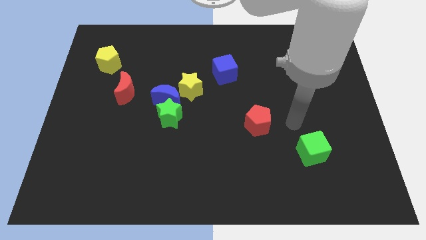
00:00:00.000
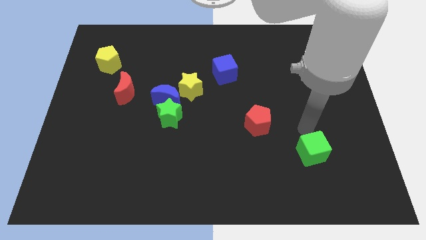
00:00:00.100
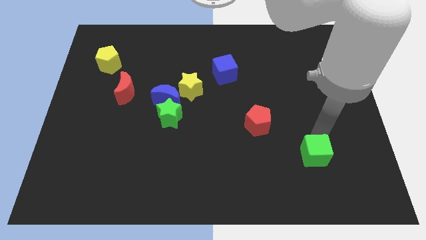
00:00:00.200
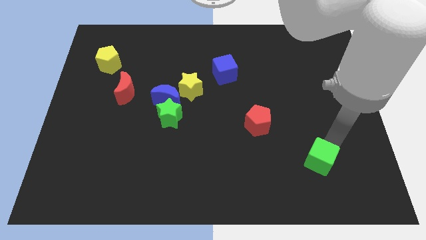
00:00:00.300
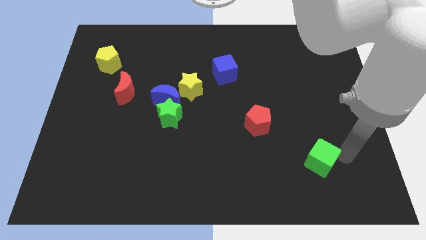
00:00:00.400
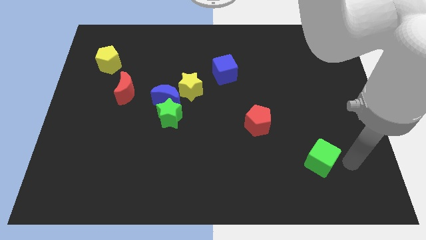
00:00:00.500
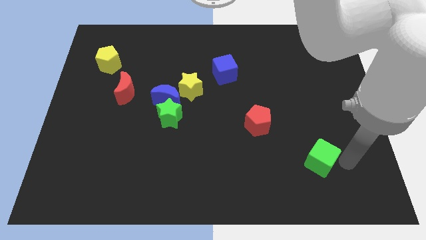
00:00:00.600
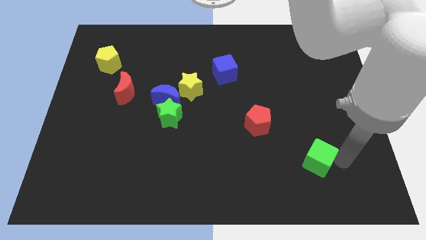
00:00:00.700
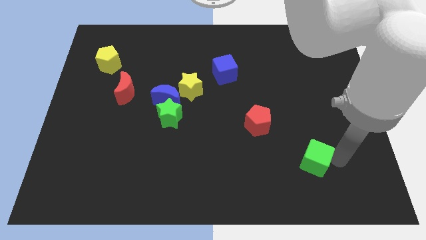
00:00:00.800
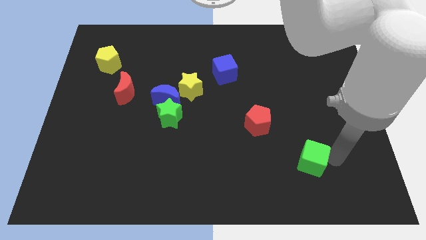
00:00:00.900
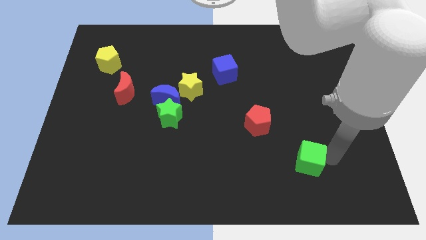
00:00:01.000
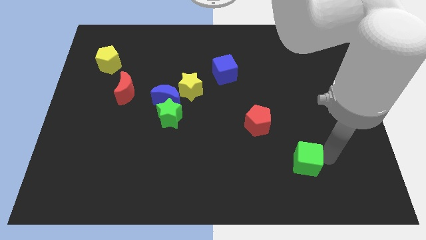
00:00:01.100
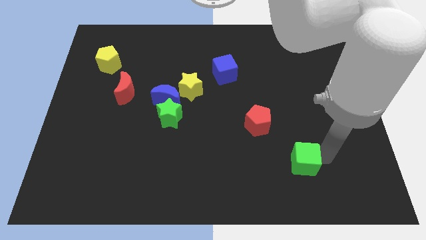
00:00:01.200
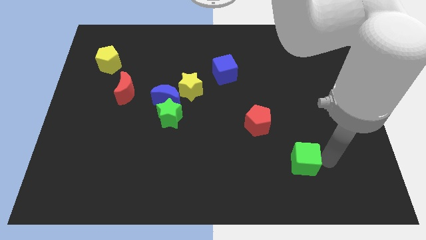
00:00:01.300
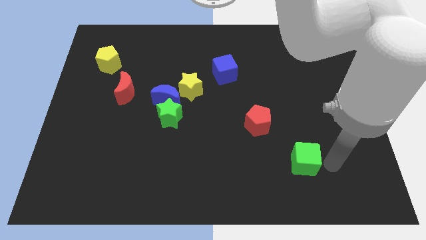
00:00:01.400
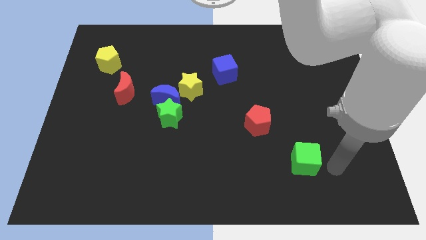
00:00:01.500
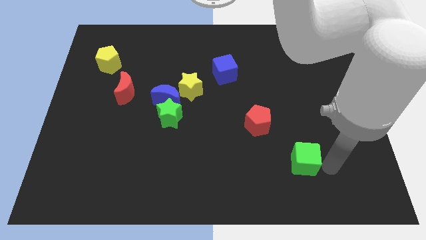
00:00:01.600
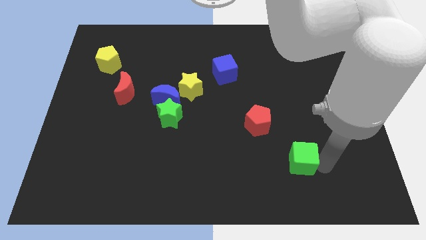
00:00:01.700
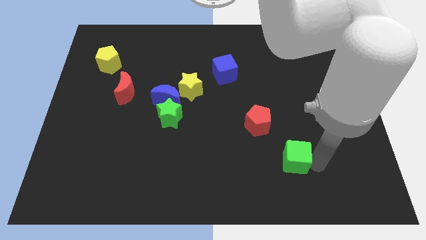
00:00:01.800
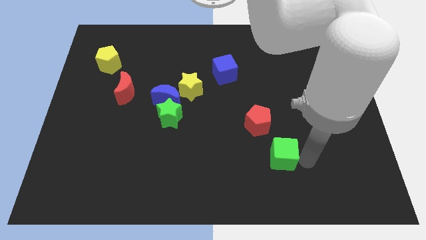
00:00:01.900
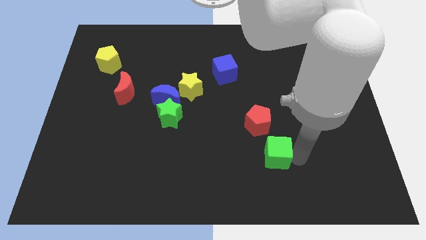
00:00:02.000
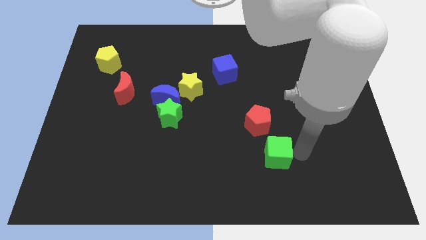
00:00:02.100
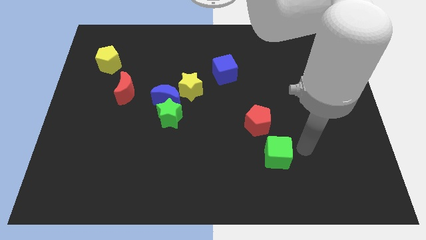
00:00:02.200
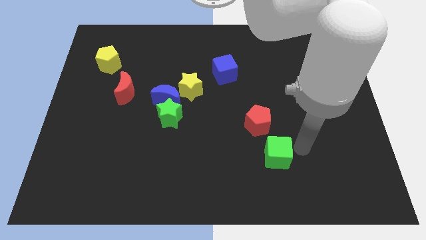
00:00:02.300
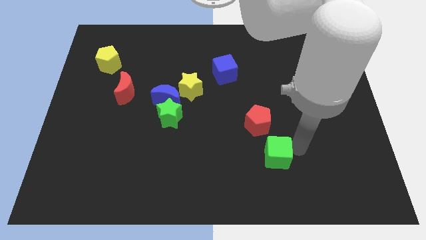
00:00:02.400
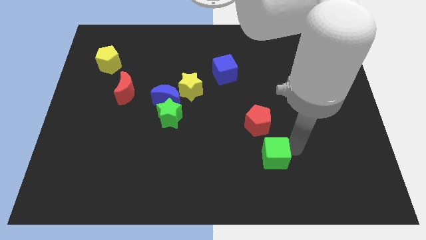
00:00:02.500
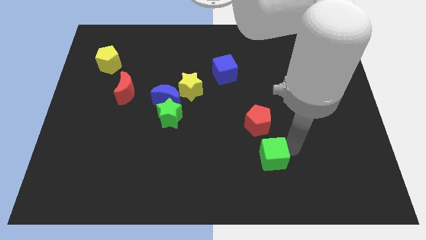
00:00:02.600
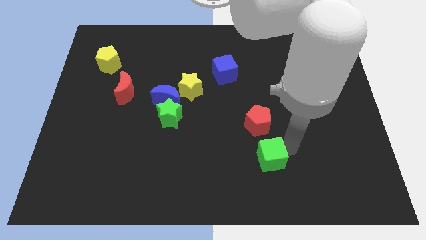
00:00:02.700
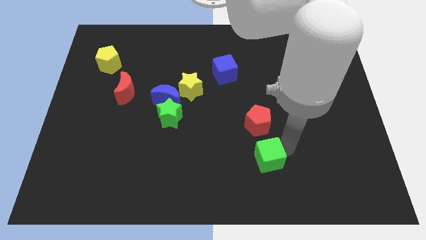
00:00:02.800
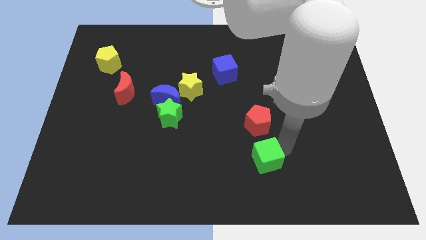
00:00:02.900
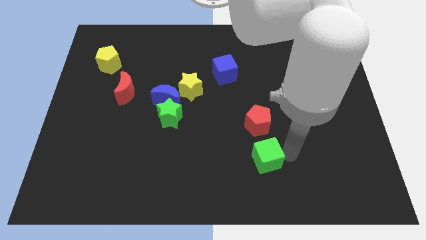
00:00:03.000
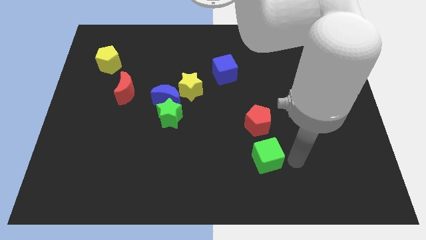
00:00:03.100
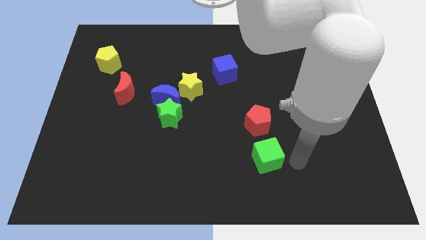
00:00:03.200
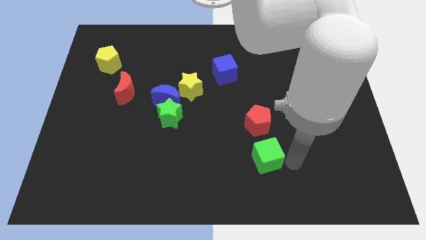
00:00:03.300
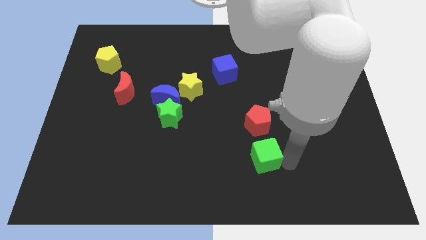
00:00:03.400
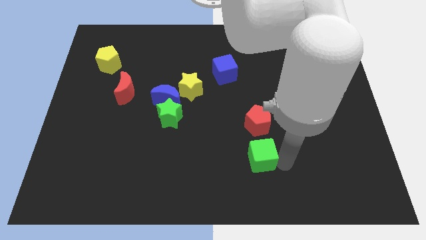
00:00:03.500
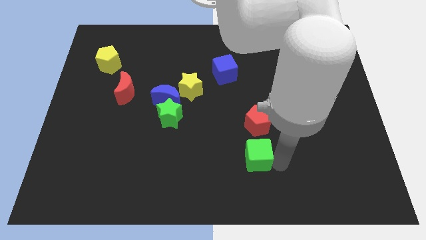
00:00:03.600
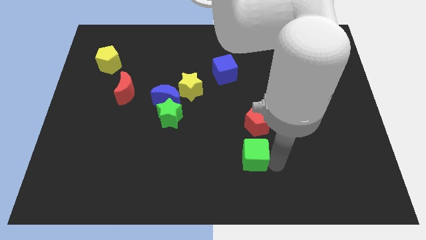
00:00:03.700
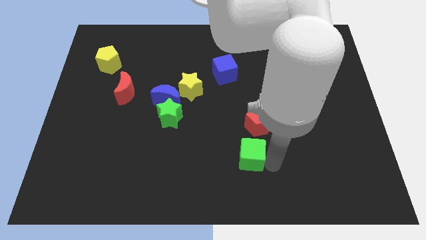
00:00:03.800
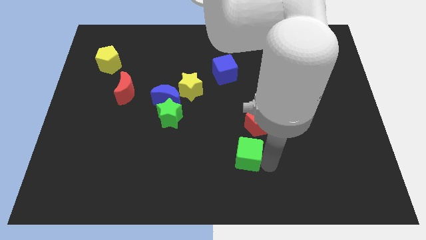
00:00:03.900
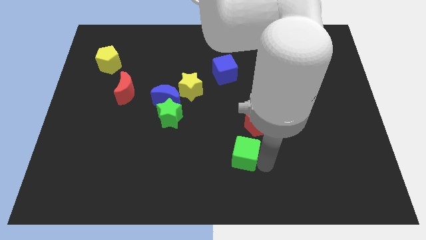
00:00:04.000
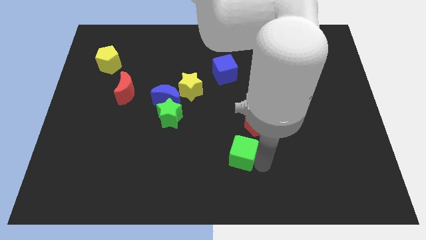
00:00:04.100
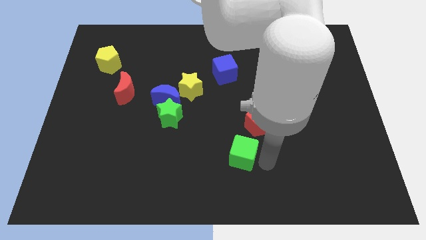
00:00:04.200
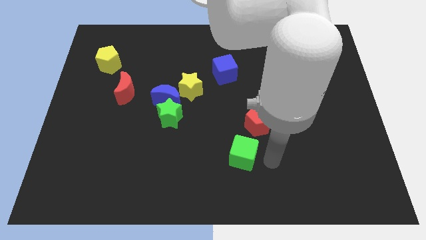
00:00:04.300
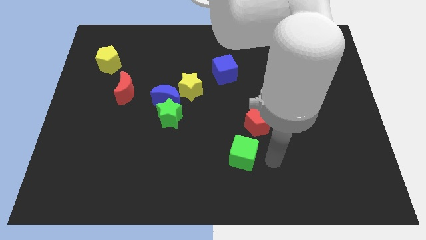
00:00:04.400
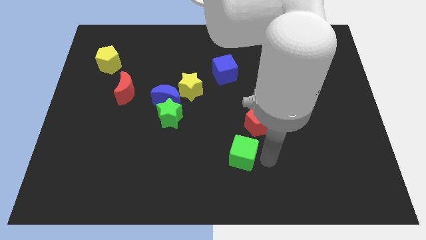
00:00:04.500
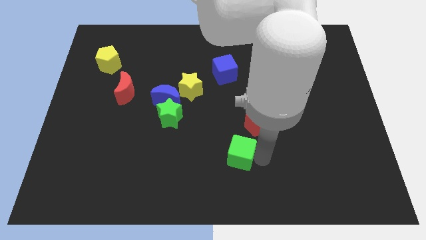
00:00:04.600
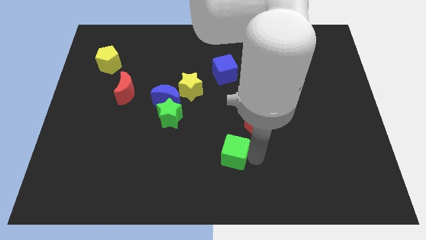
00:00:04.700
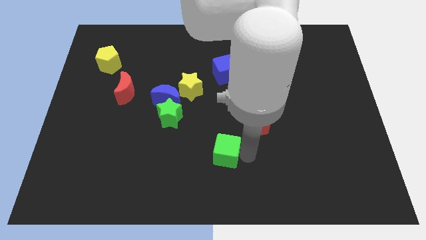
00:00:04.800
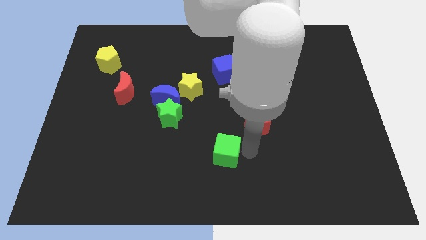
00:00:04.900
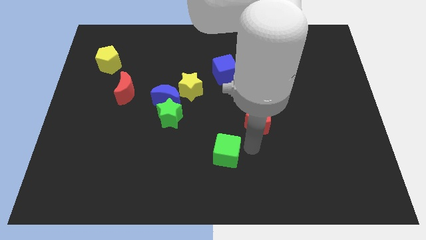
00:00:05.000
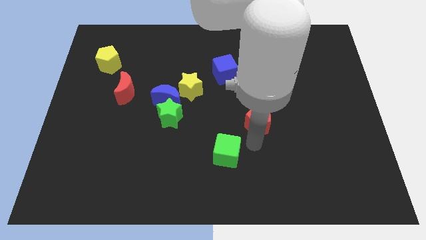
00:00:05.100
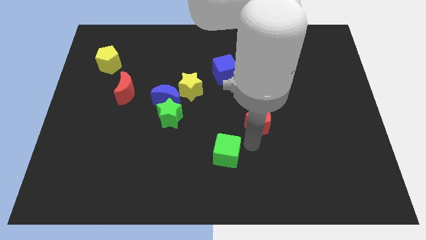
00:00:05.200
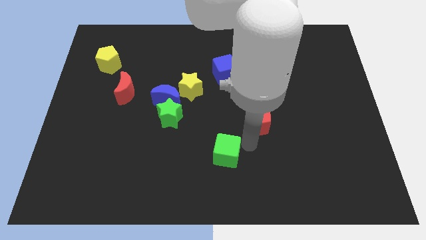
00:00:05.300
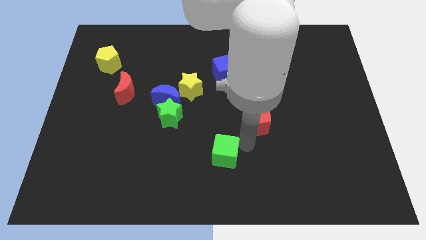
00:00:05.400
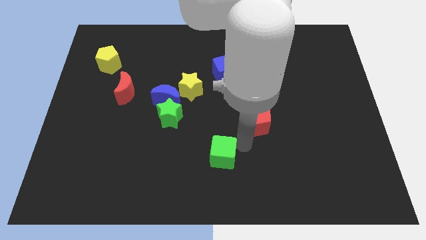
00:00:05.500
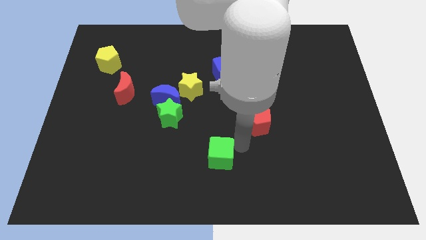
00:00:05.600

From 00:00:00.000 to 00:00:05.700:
push the green cube left

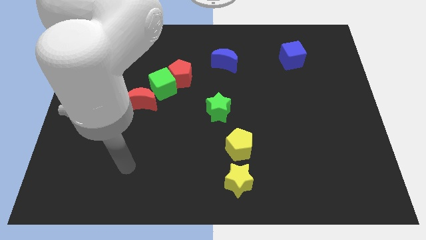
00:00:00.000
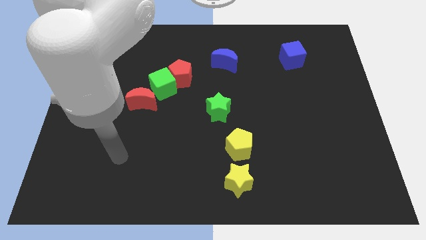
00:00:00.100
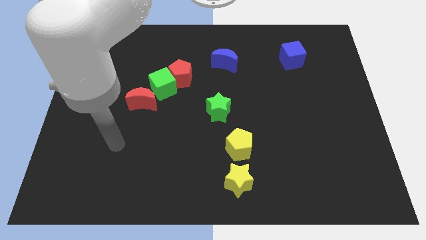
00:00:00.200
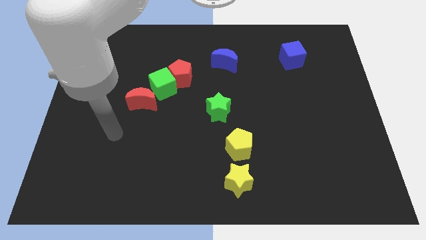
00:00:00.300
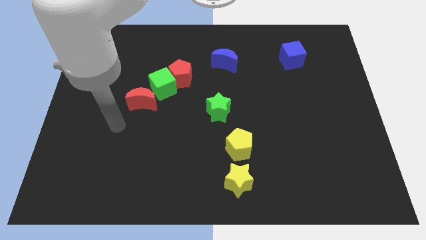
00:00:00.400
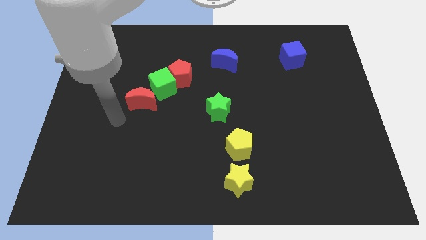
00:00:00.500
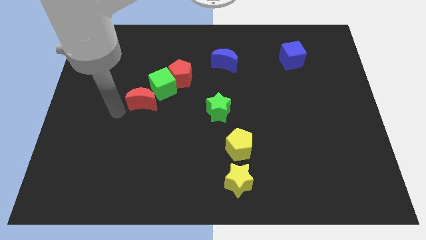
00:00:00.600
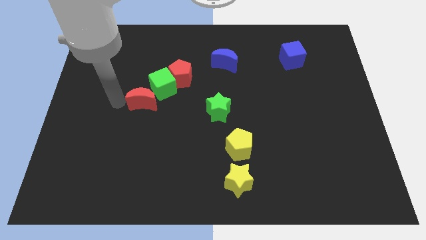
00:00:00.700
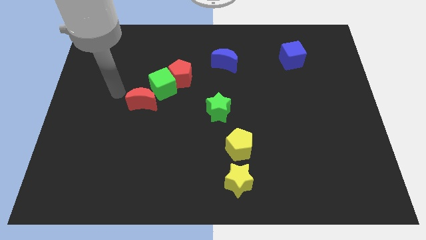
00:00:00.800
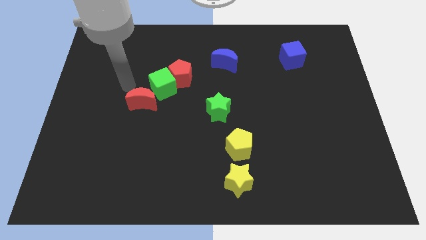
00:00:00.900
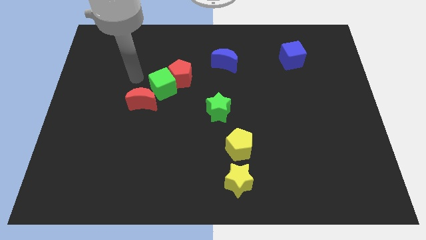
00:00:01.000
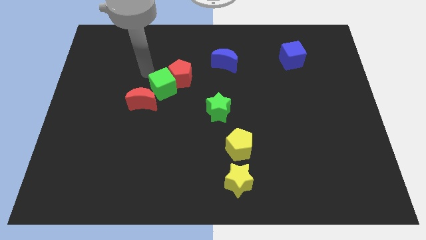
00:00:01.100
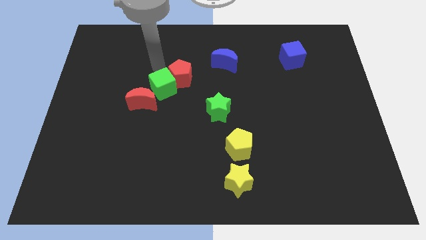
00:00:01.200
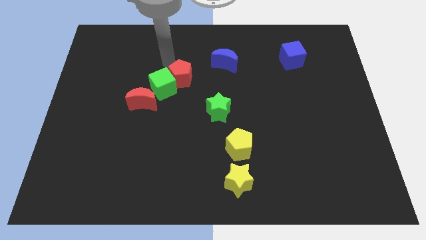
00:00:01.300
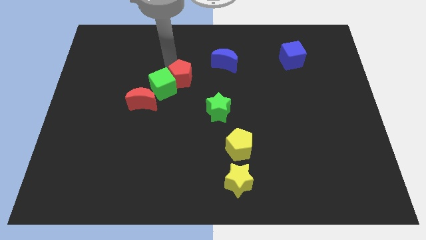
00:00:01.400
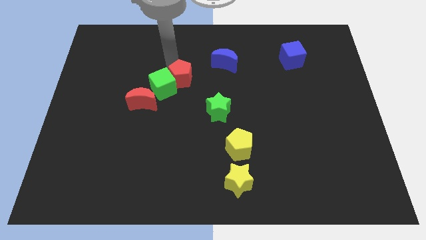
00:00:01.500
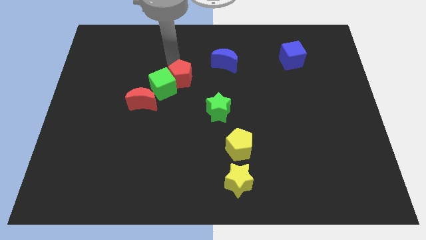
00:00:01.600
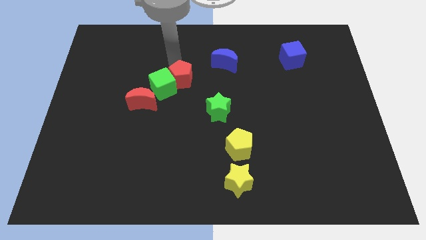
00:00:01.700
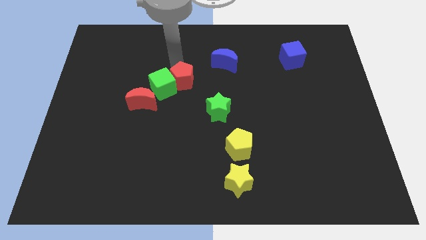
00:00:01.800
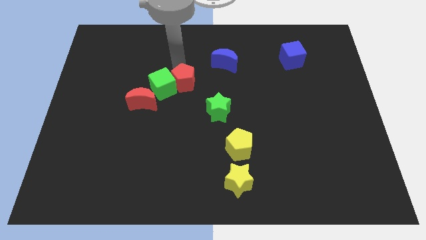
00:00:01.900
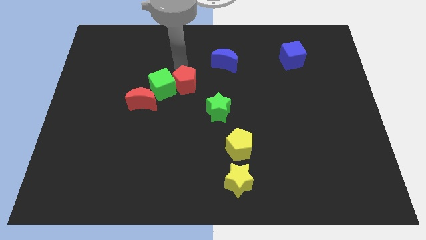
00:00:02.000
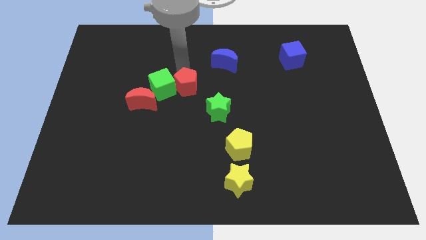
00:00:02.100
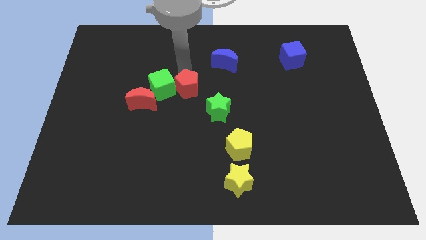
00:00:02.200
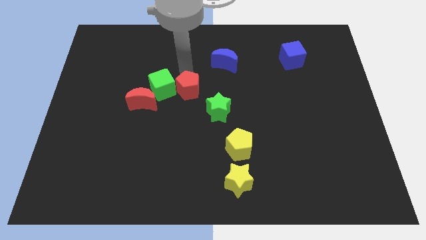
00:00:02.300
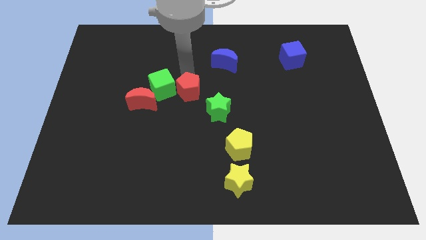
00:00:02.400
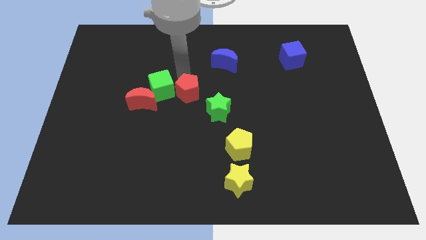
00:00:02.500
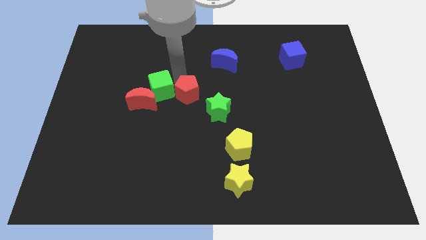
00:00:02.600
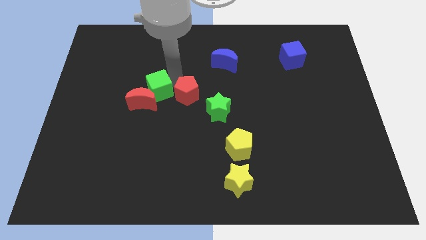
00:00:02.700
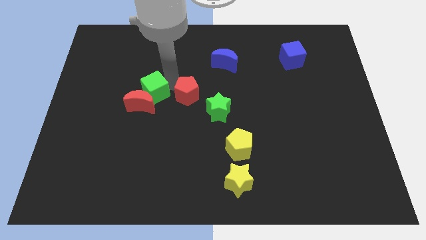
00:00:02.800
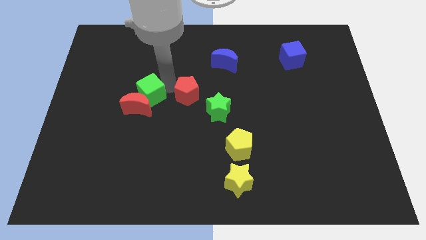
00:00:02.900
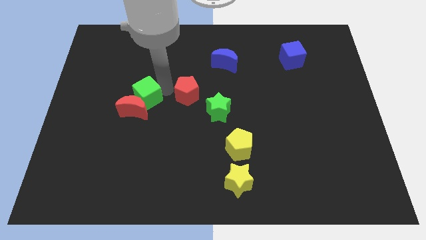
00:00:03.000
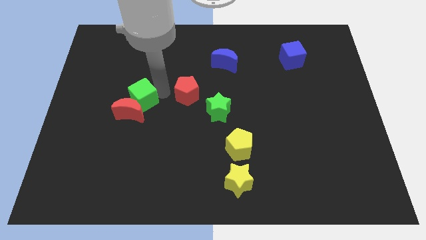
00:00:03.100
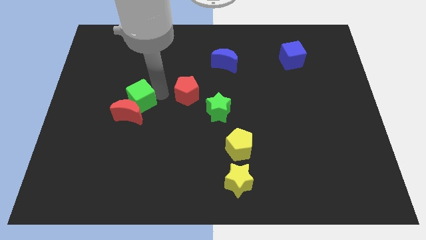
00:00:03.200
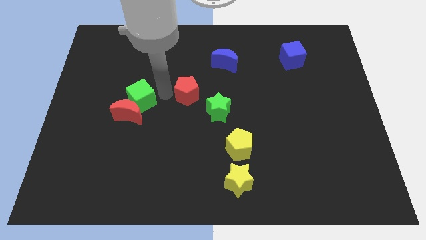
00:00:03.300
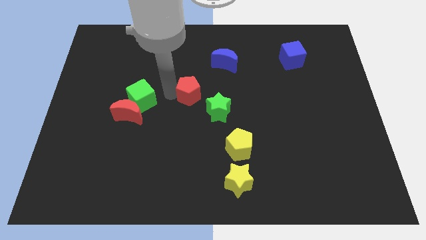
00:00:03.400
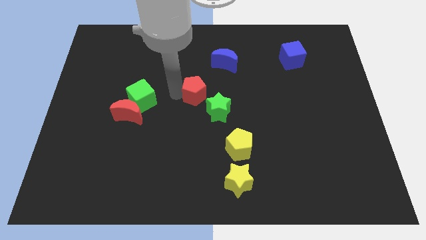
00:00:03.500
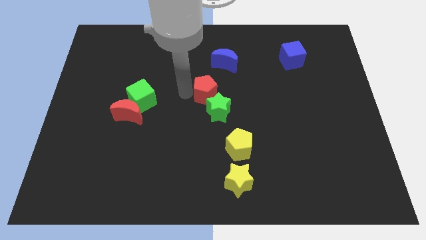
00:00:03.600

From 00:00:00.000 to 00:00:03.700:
push the red pentagon somewhat down and then to the right
